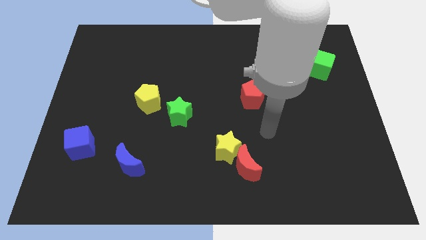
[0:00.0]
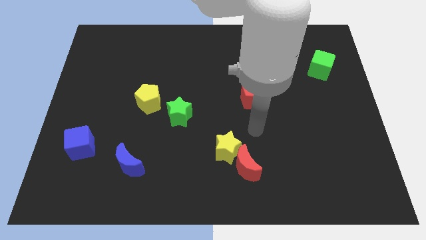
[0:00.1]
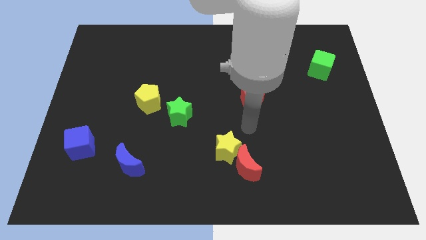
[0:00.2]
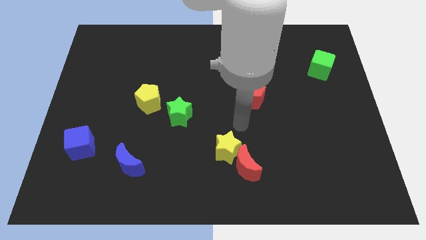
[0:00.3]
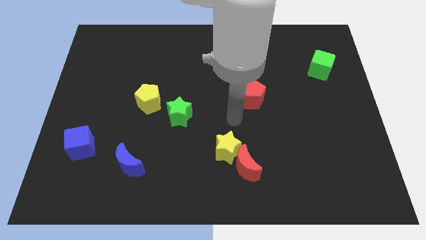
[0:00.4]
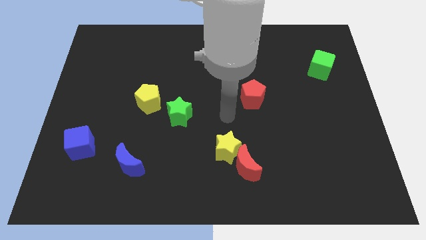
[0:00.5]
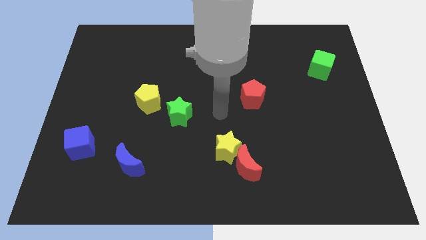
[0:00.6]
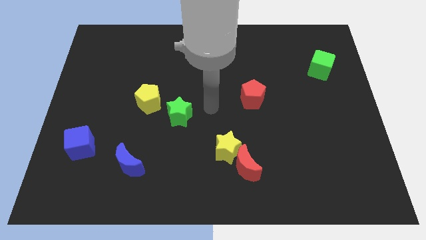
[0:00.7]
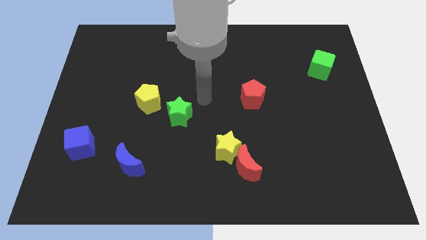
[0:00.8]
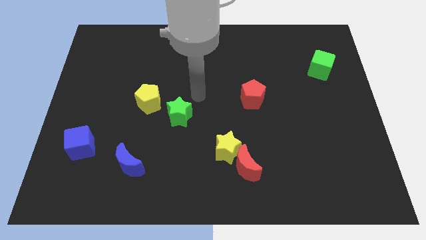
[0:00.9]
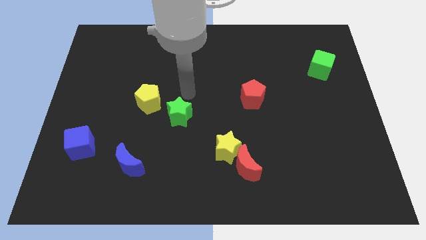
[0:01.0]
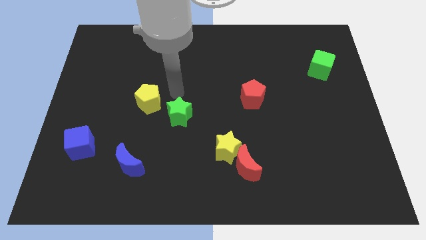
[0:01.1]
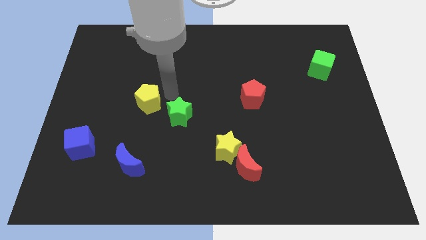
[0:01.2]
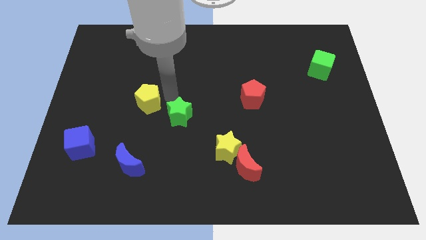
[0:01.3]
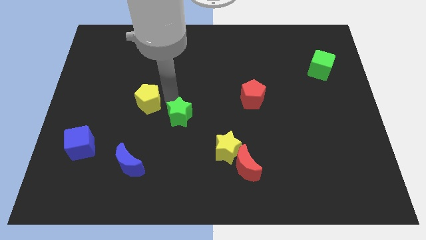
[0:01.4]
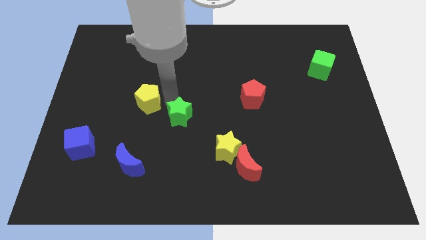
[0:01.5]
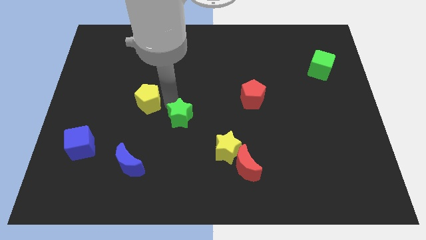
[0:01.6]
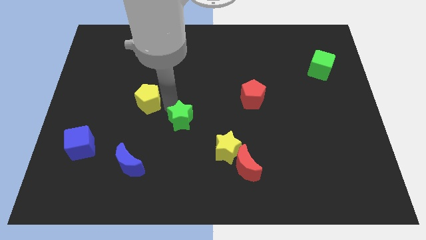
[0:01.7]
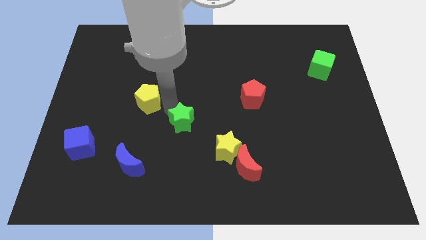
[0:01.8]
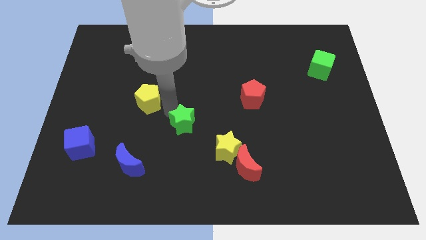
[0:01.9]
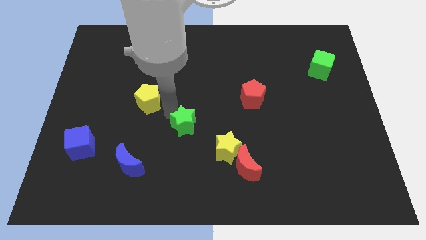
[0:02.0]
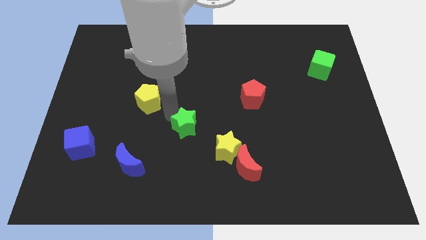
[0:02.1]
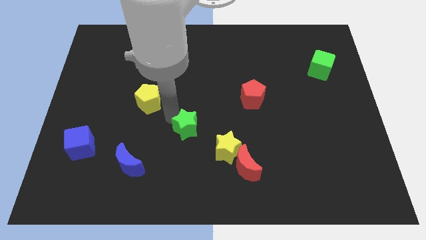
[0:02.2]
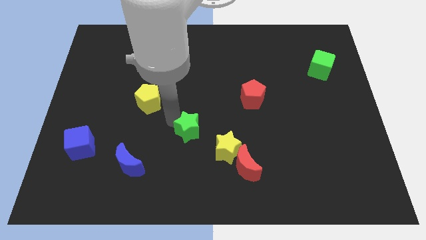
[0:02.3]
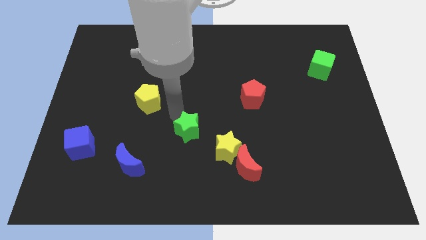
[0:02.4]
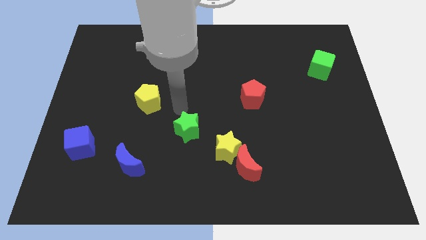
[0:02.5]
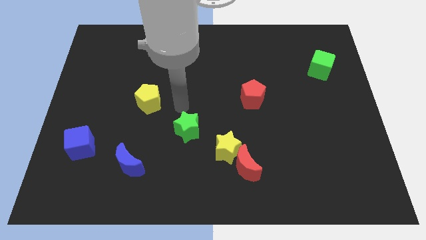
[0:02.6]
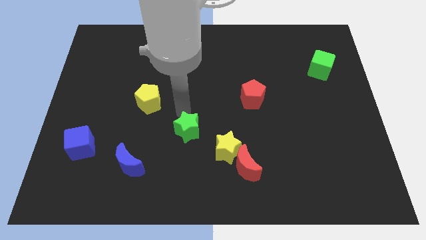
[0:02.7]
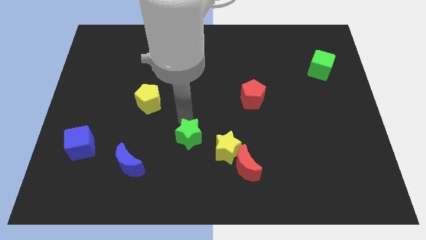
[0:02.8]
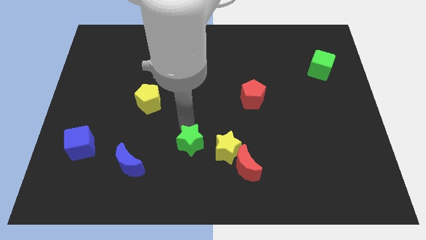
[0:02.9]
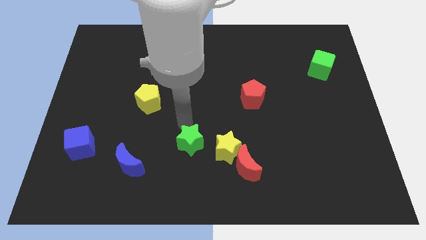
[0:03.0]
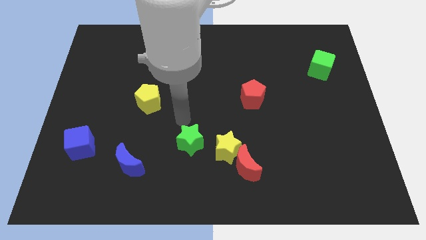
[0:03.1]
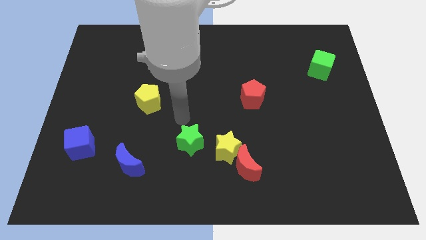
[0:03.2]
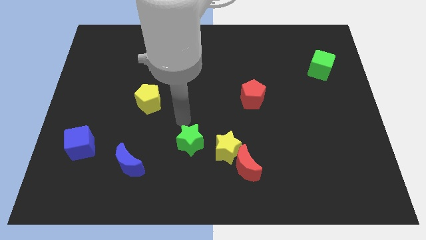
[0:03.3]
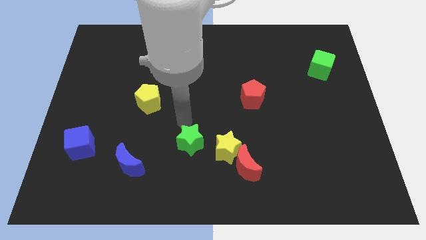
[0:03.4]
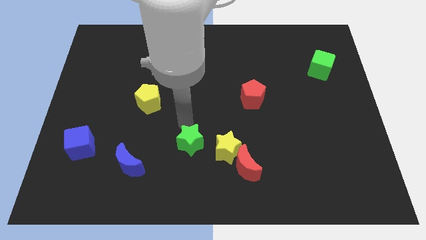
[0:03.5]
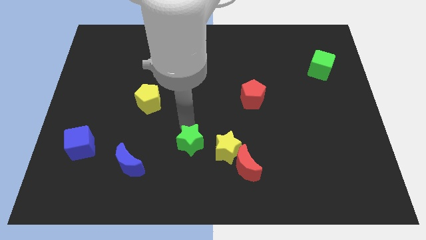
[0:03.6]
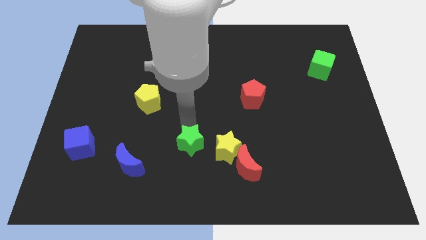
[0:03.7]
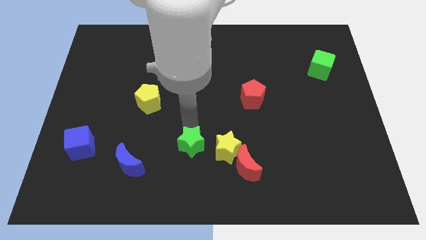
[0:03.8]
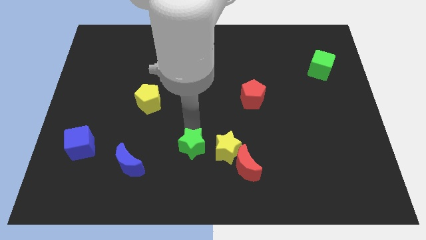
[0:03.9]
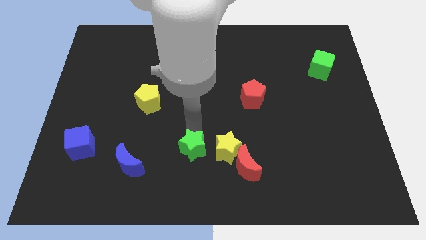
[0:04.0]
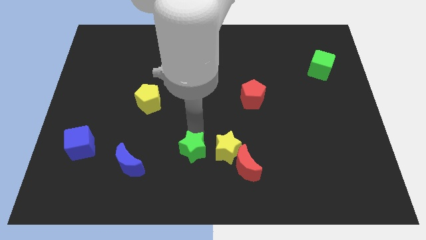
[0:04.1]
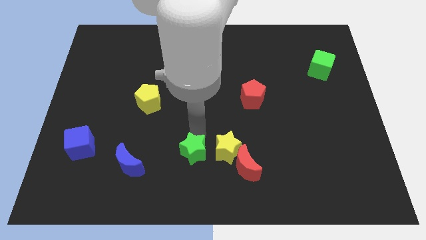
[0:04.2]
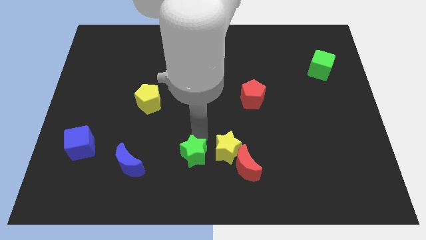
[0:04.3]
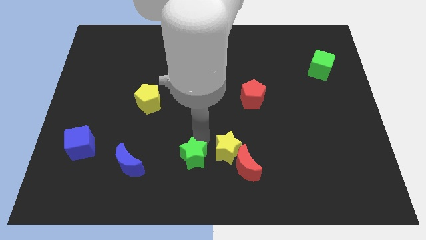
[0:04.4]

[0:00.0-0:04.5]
push the green star to the bottom

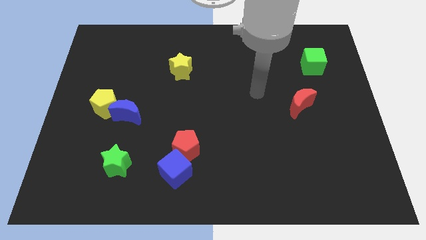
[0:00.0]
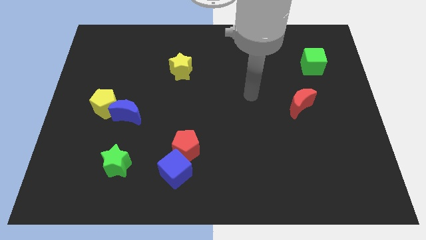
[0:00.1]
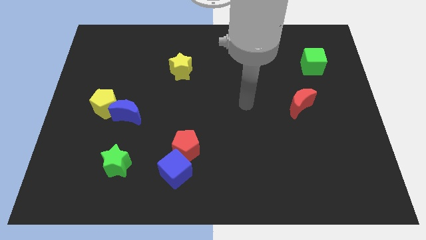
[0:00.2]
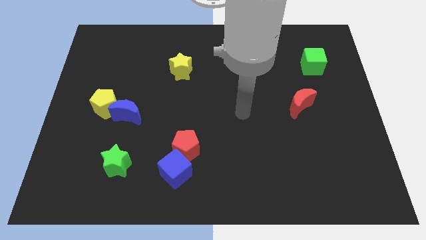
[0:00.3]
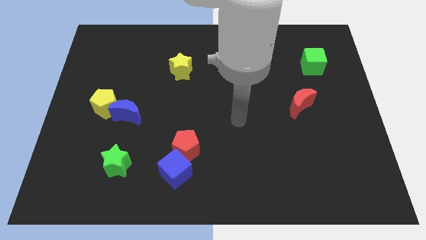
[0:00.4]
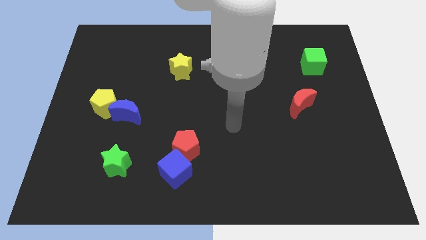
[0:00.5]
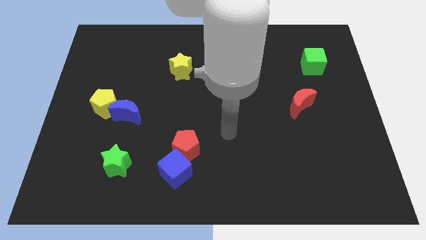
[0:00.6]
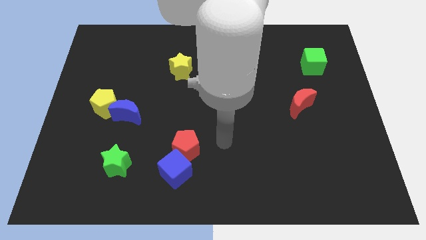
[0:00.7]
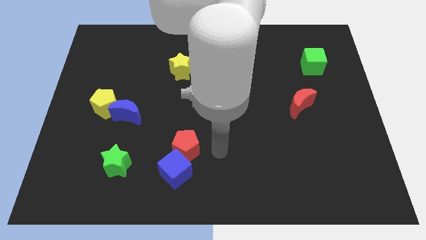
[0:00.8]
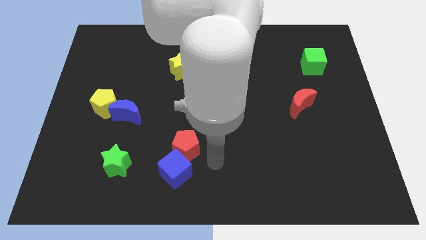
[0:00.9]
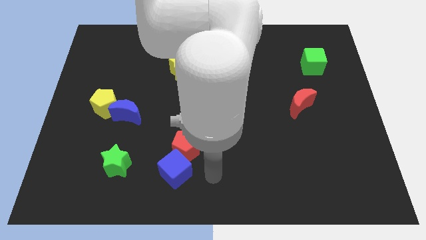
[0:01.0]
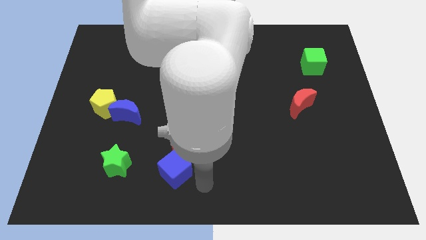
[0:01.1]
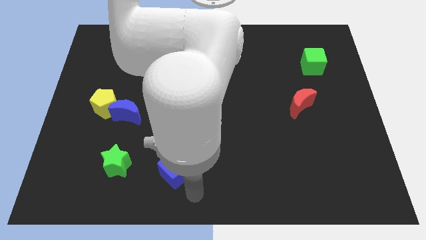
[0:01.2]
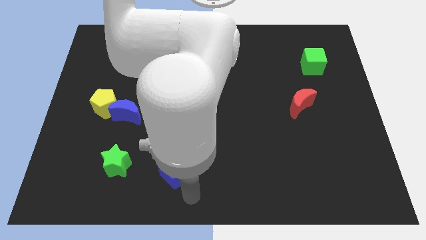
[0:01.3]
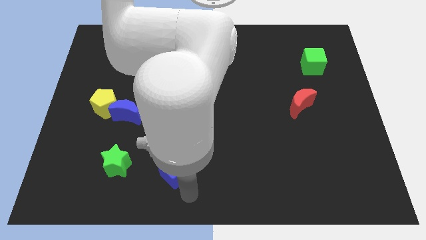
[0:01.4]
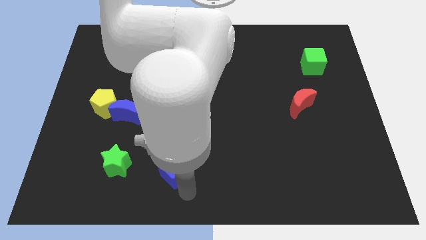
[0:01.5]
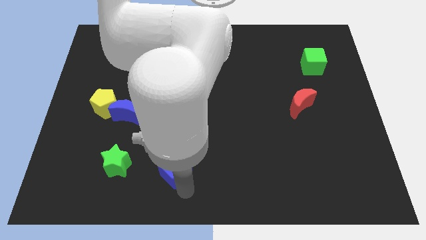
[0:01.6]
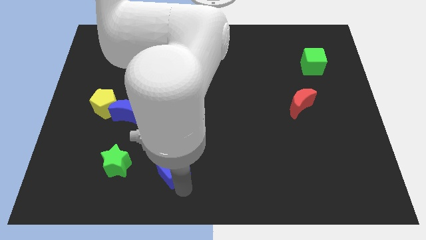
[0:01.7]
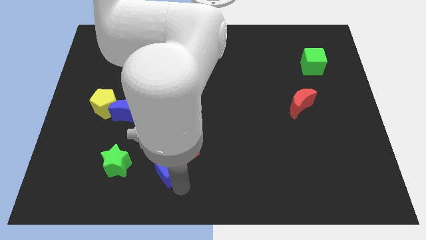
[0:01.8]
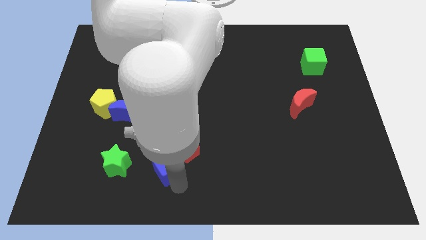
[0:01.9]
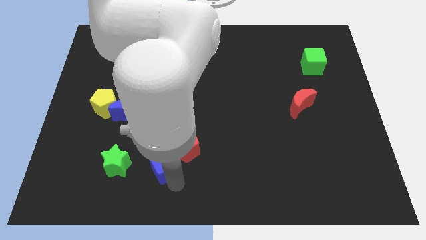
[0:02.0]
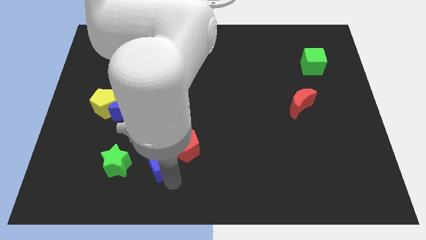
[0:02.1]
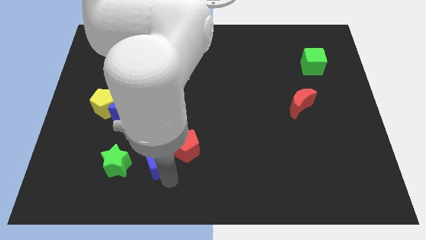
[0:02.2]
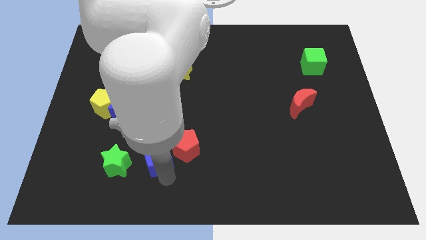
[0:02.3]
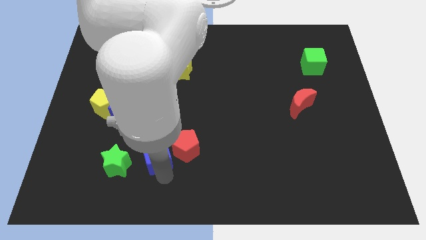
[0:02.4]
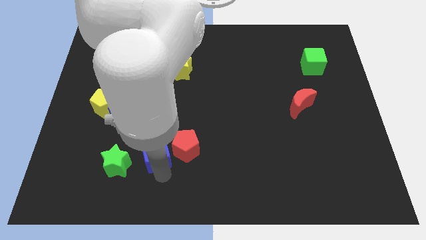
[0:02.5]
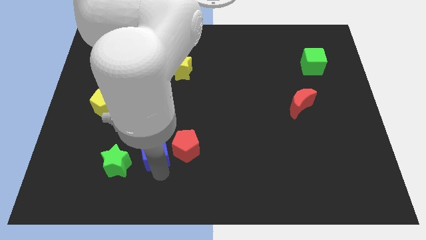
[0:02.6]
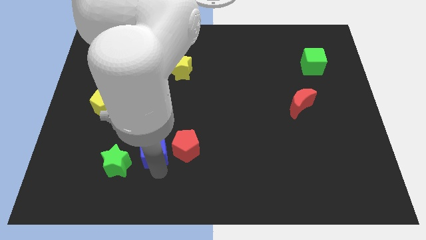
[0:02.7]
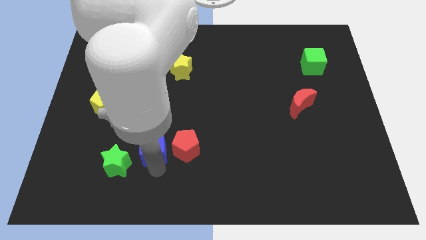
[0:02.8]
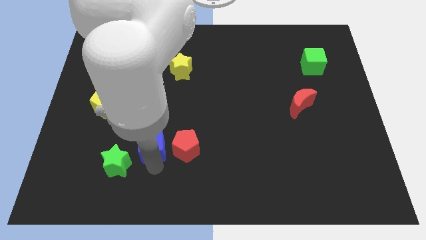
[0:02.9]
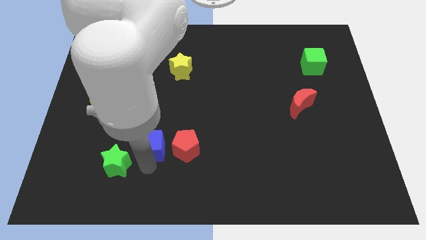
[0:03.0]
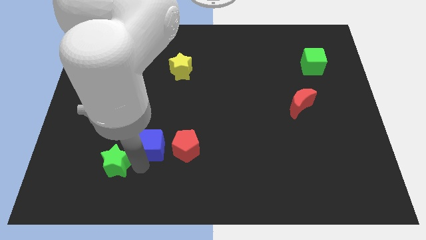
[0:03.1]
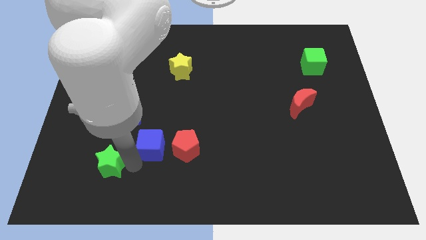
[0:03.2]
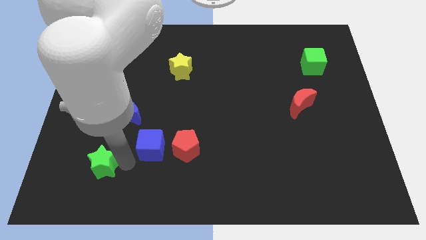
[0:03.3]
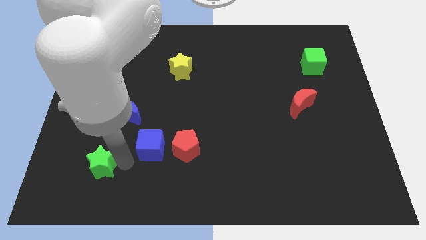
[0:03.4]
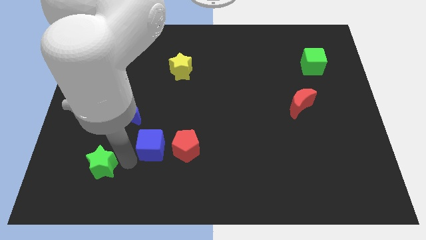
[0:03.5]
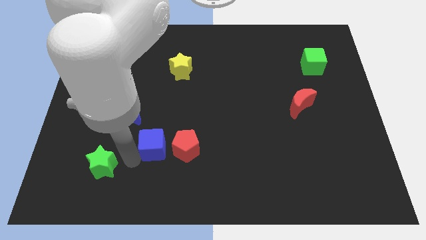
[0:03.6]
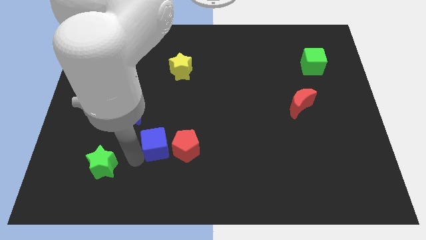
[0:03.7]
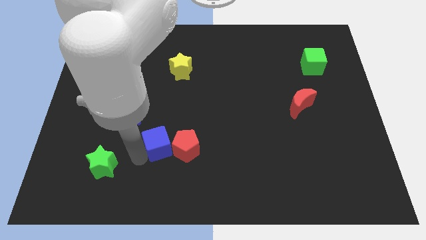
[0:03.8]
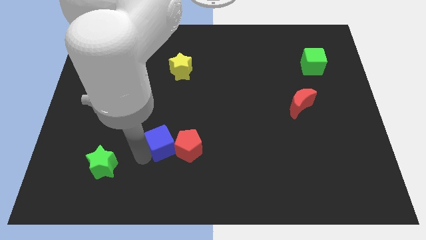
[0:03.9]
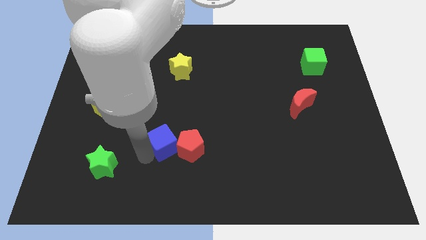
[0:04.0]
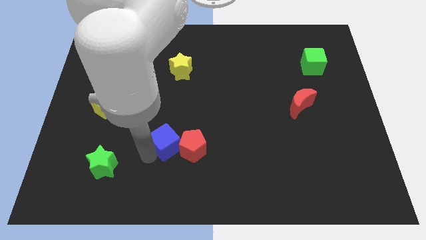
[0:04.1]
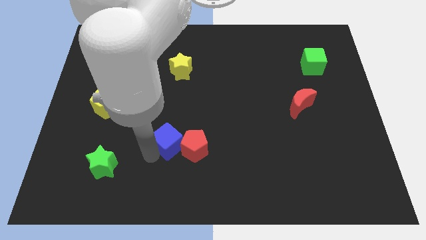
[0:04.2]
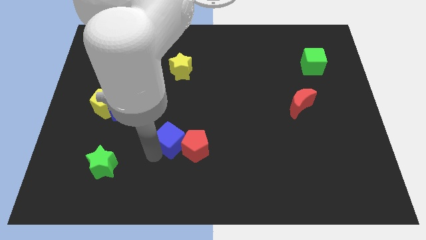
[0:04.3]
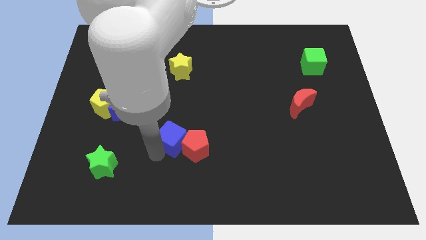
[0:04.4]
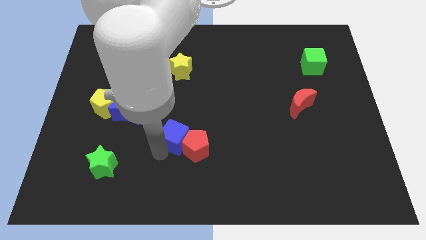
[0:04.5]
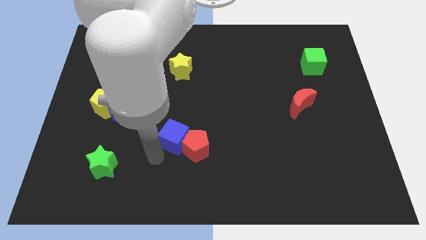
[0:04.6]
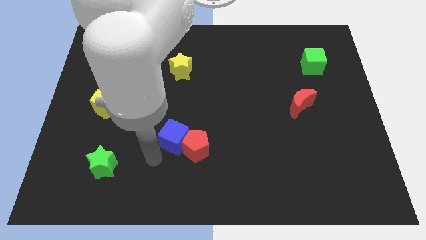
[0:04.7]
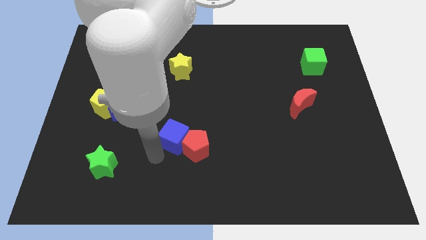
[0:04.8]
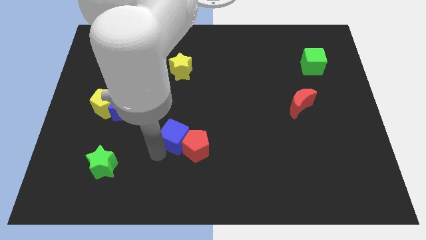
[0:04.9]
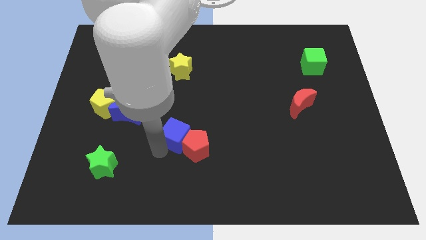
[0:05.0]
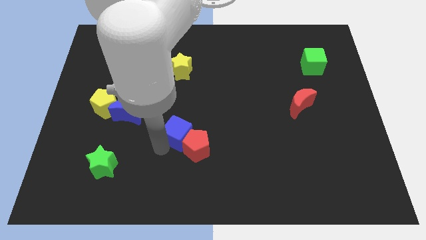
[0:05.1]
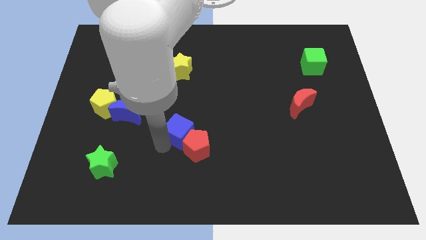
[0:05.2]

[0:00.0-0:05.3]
push the blue cube to the middle of the board
